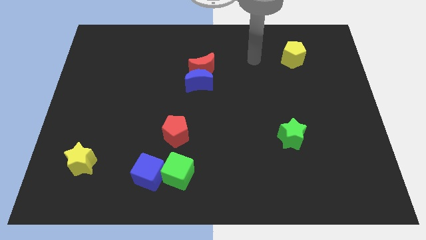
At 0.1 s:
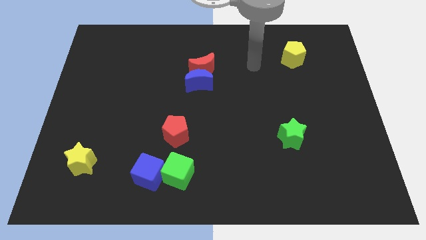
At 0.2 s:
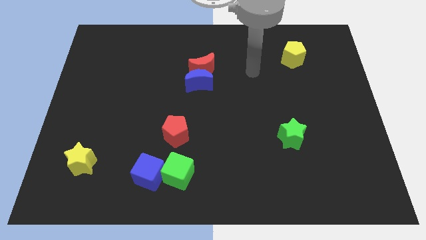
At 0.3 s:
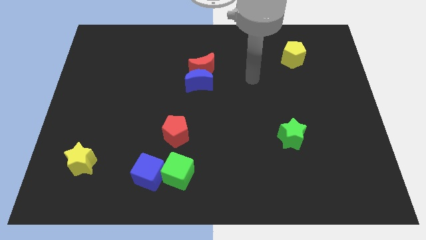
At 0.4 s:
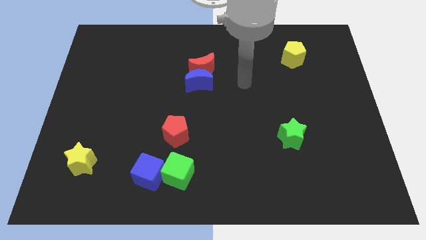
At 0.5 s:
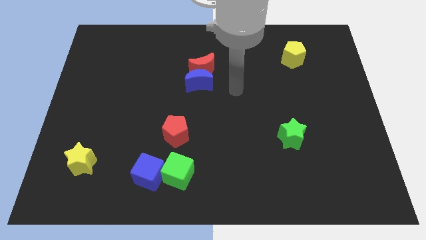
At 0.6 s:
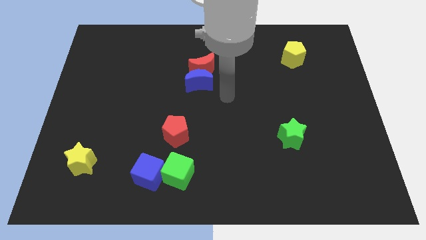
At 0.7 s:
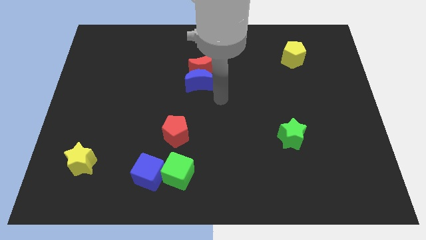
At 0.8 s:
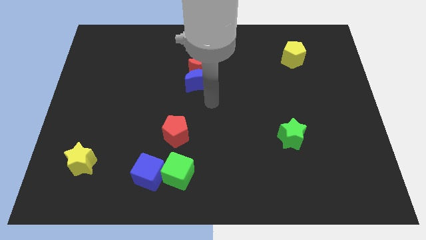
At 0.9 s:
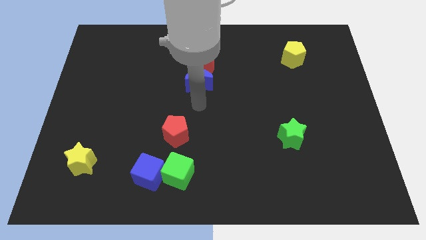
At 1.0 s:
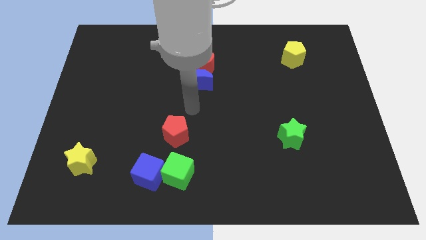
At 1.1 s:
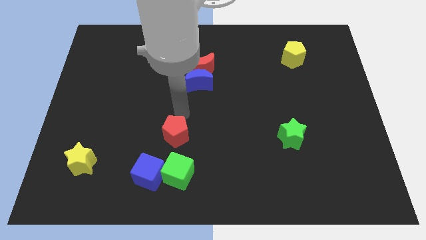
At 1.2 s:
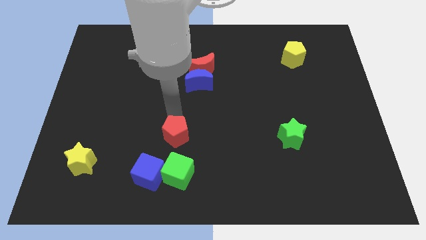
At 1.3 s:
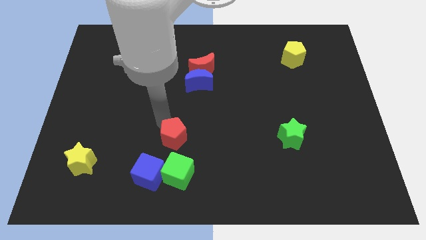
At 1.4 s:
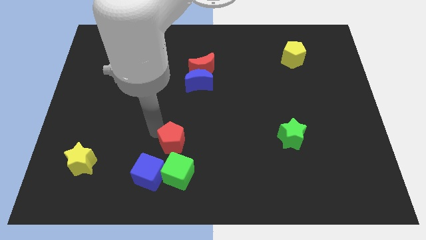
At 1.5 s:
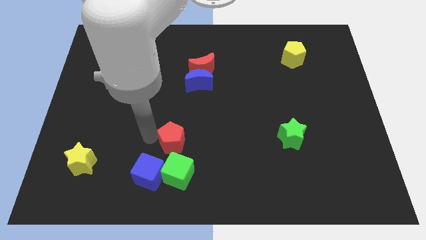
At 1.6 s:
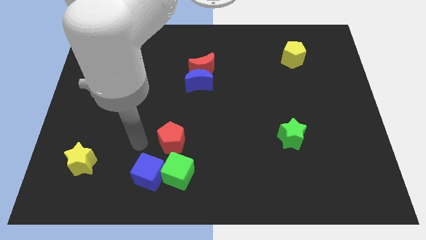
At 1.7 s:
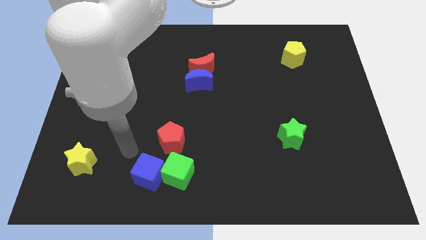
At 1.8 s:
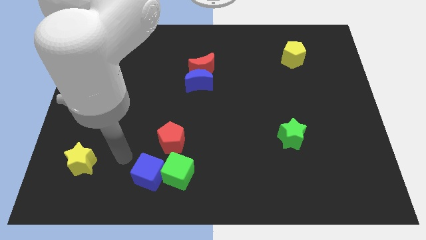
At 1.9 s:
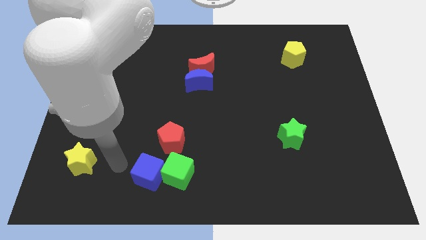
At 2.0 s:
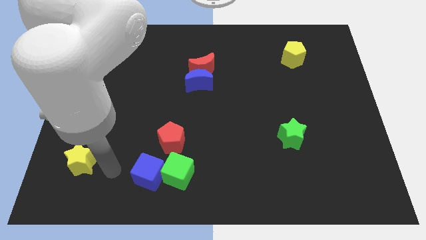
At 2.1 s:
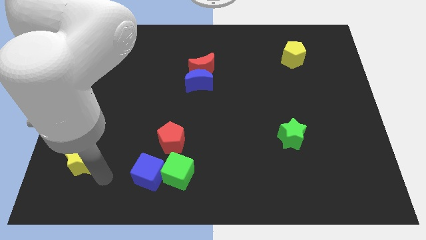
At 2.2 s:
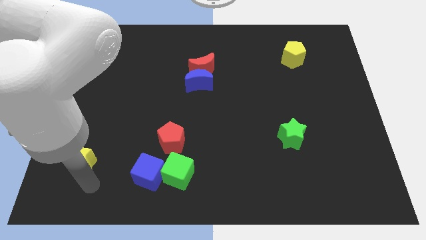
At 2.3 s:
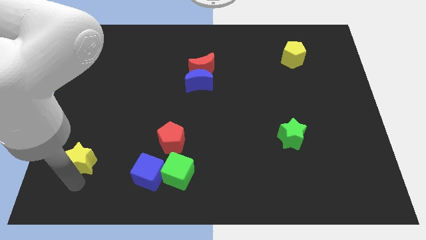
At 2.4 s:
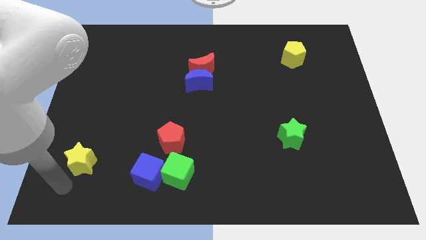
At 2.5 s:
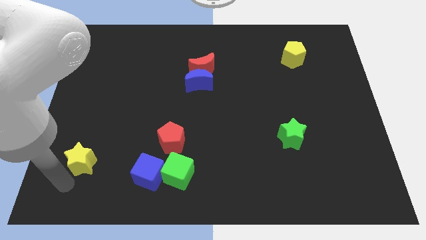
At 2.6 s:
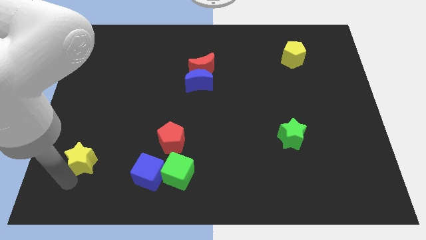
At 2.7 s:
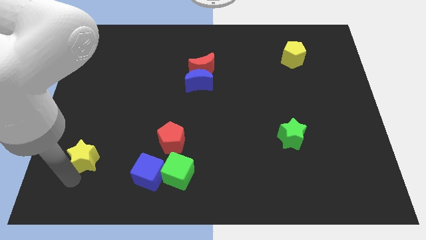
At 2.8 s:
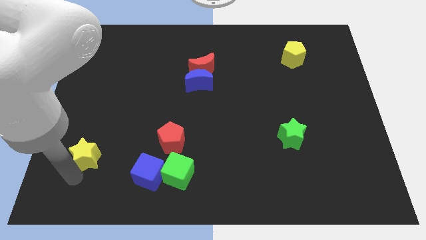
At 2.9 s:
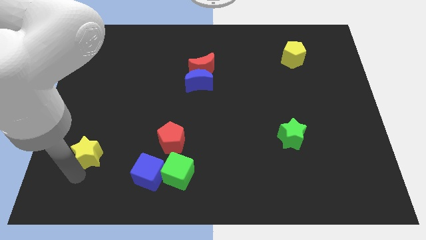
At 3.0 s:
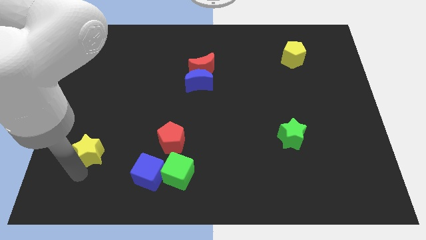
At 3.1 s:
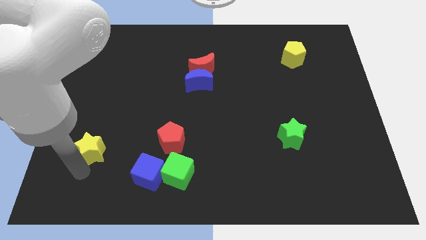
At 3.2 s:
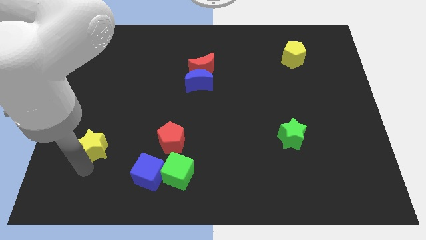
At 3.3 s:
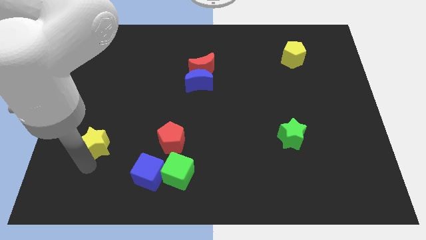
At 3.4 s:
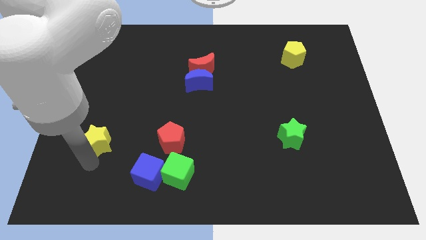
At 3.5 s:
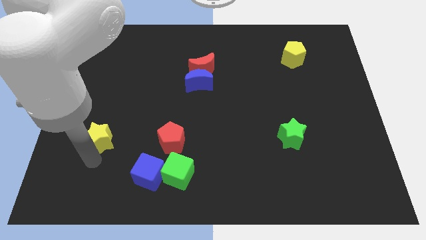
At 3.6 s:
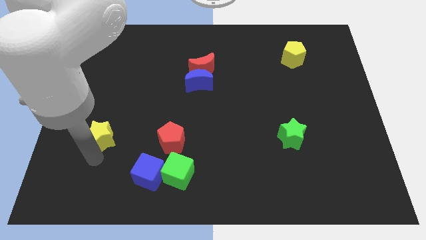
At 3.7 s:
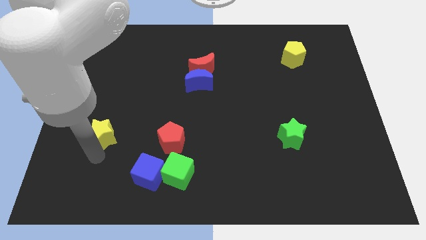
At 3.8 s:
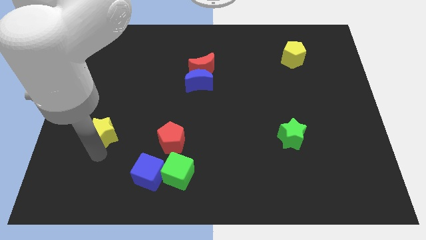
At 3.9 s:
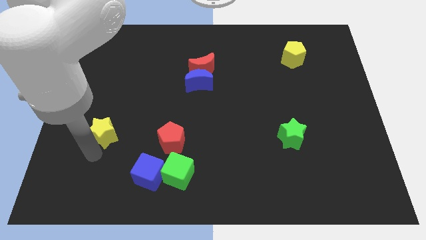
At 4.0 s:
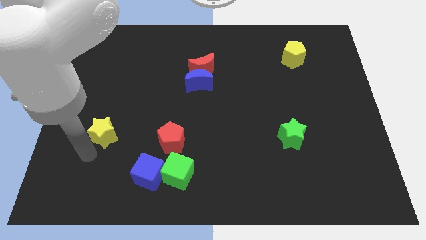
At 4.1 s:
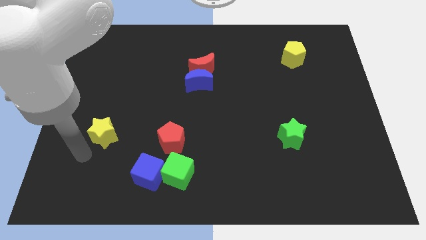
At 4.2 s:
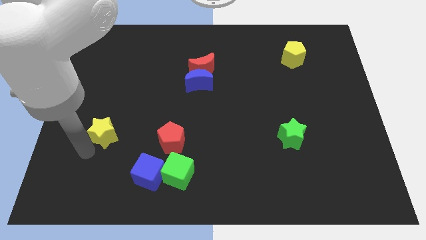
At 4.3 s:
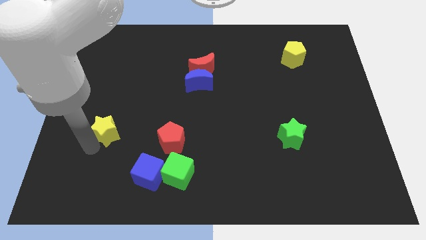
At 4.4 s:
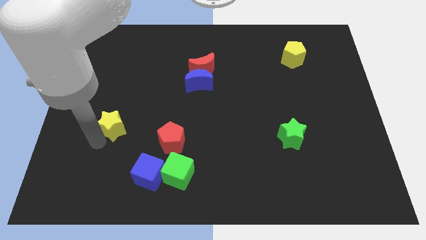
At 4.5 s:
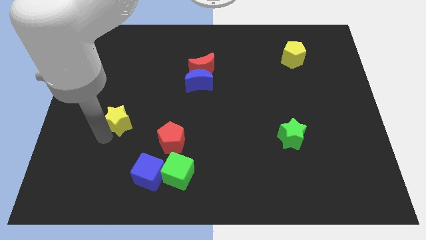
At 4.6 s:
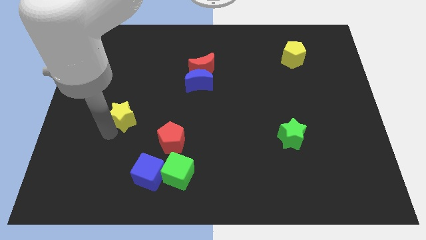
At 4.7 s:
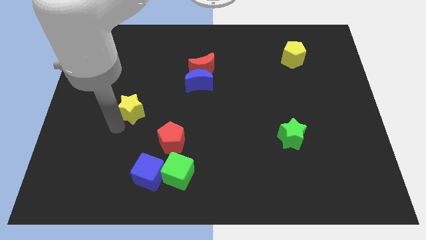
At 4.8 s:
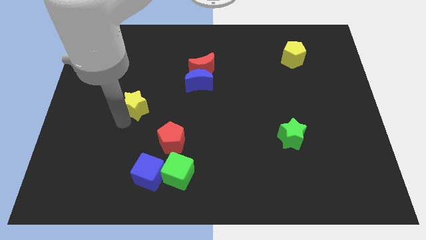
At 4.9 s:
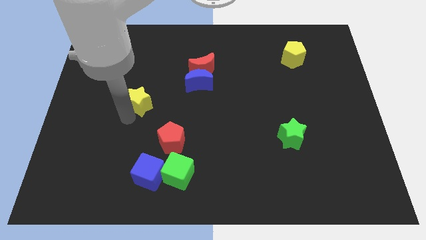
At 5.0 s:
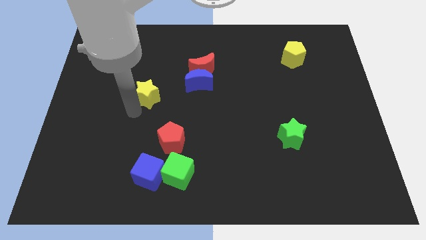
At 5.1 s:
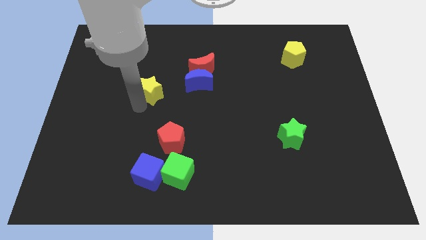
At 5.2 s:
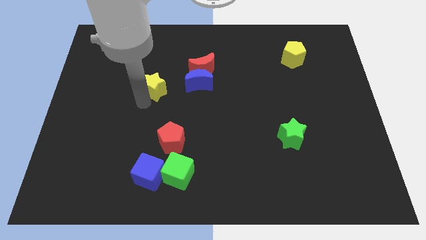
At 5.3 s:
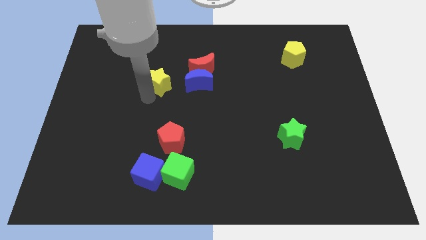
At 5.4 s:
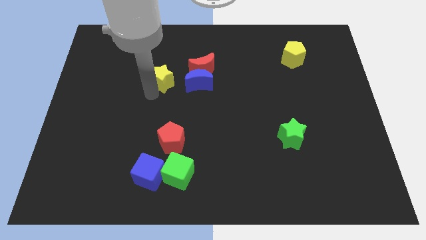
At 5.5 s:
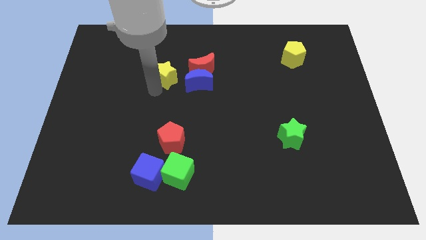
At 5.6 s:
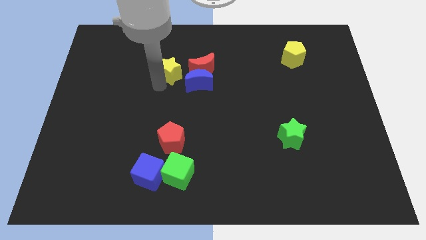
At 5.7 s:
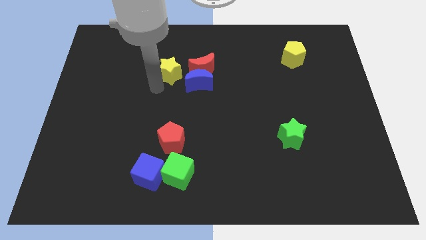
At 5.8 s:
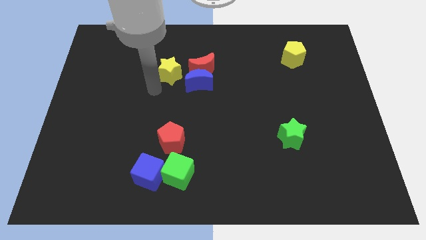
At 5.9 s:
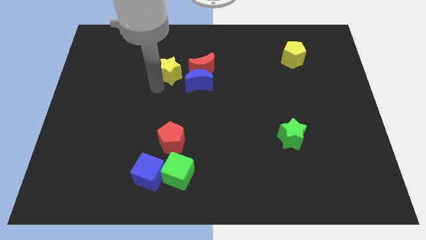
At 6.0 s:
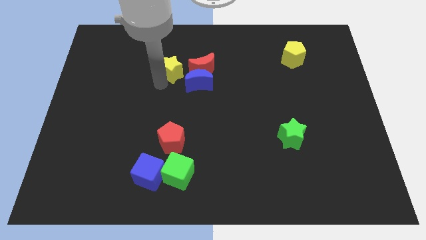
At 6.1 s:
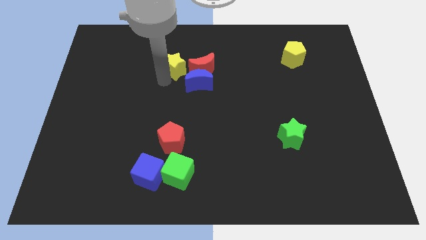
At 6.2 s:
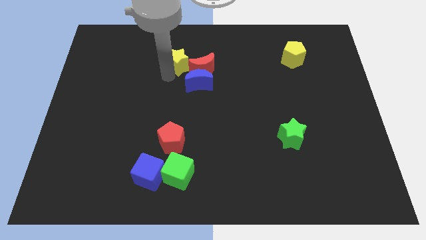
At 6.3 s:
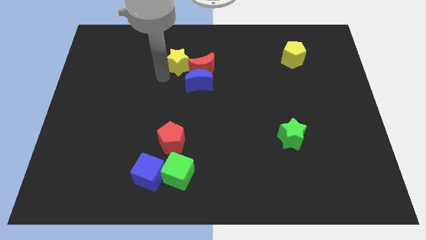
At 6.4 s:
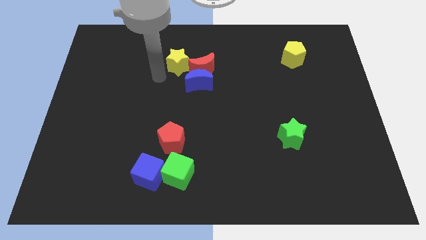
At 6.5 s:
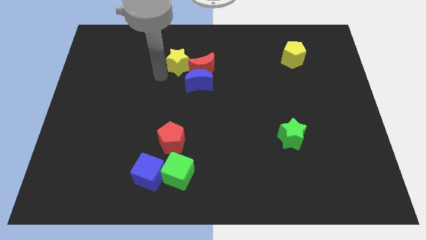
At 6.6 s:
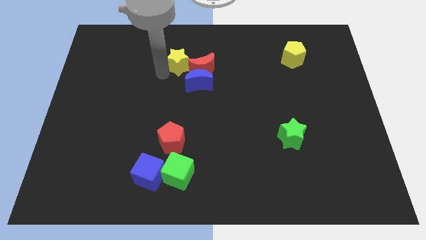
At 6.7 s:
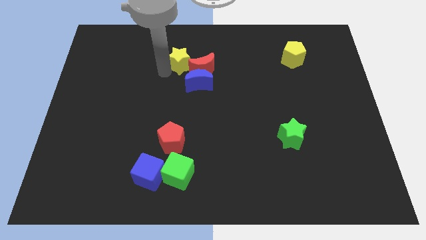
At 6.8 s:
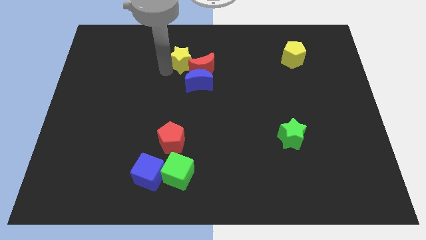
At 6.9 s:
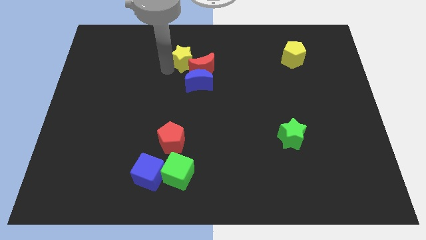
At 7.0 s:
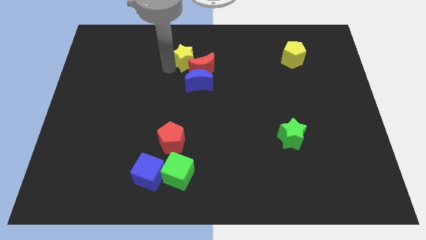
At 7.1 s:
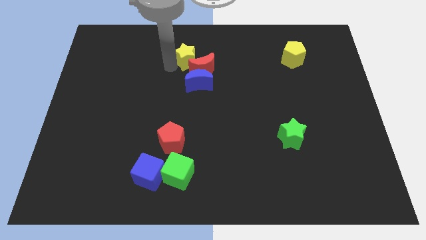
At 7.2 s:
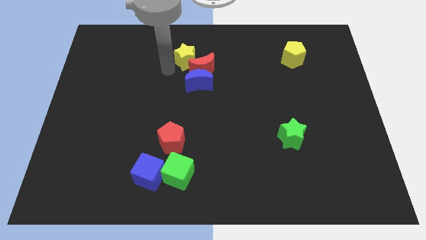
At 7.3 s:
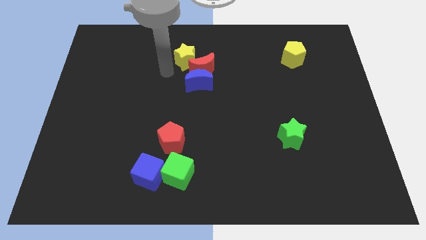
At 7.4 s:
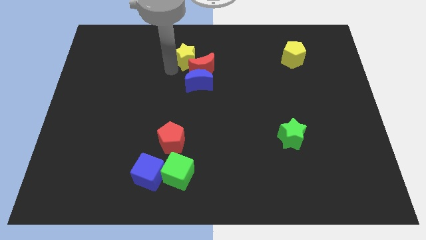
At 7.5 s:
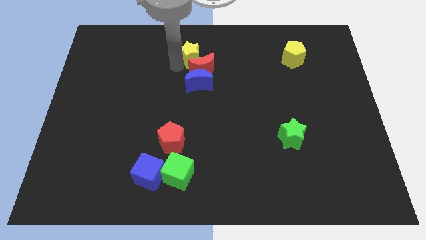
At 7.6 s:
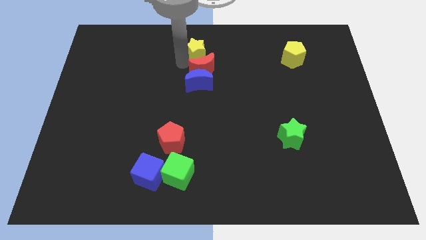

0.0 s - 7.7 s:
put the yellow star to the top side
